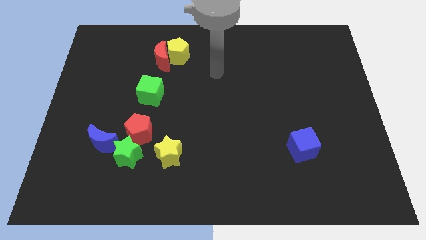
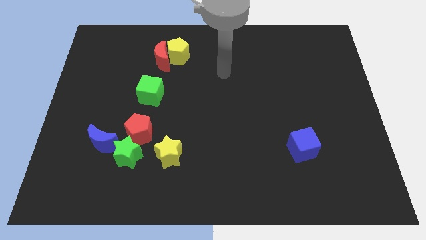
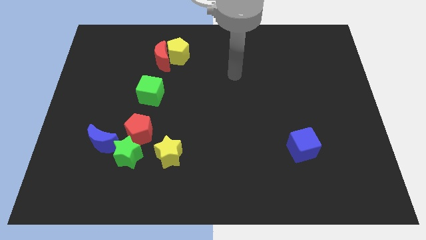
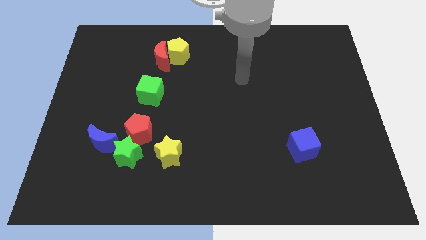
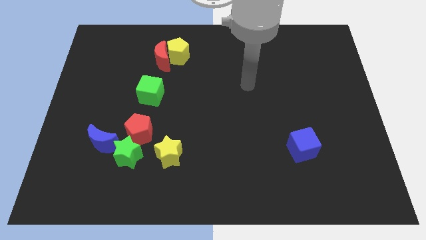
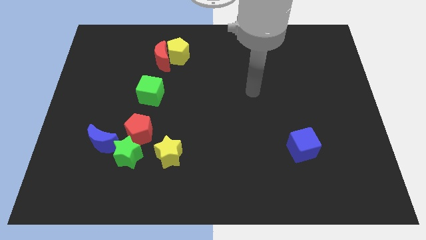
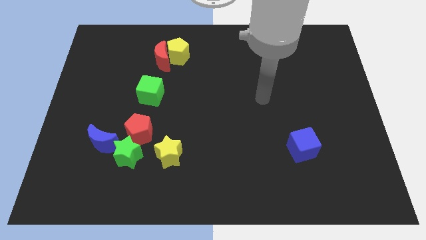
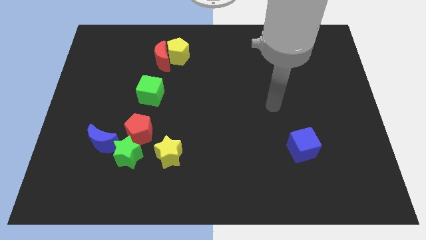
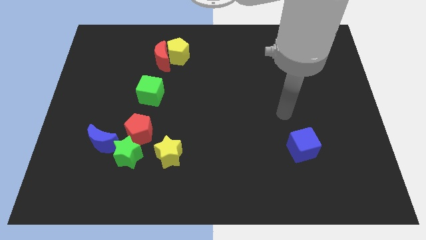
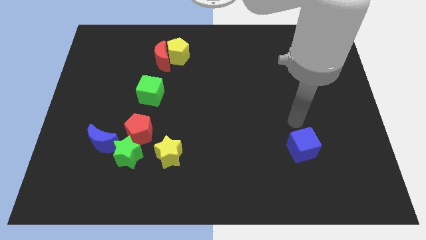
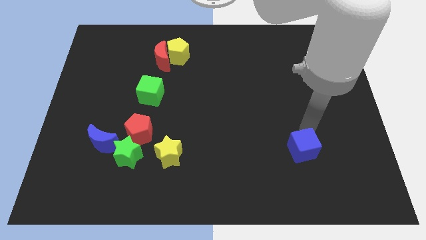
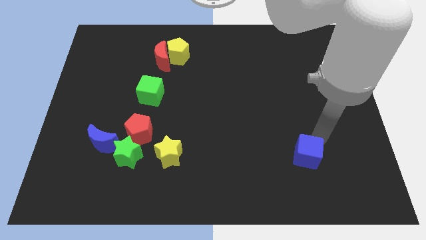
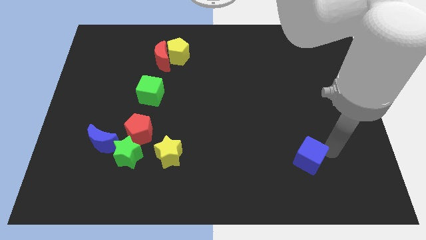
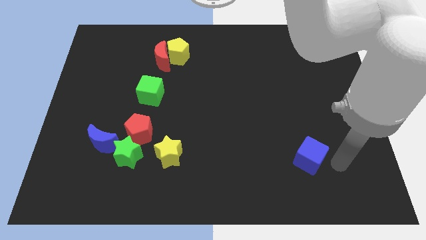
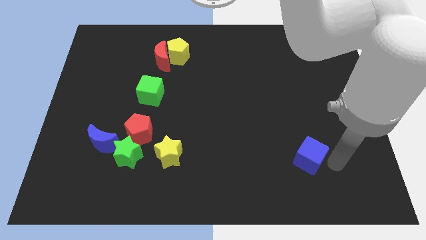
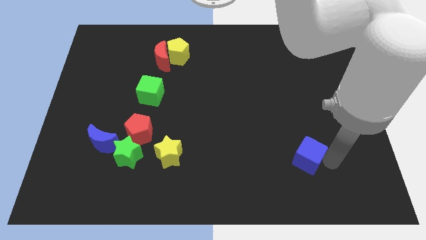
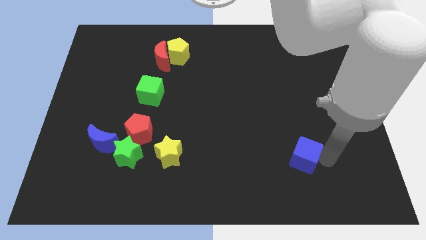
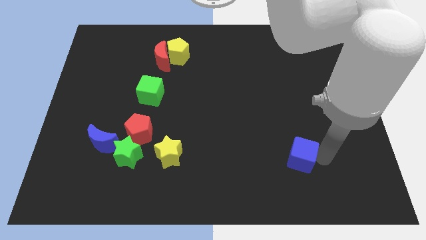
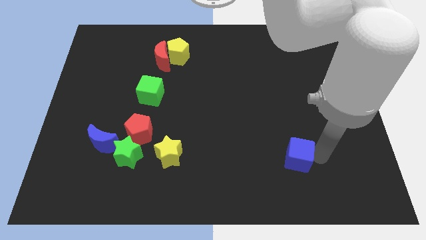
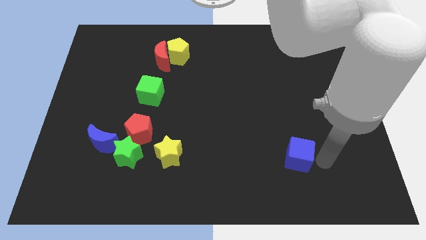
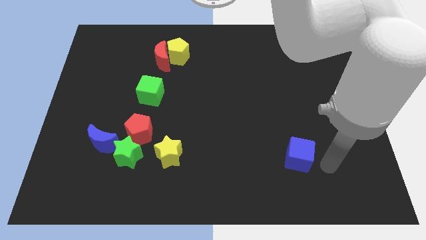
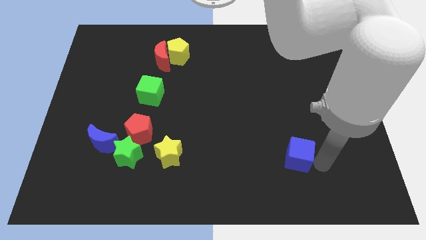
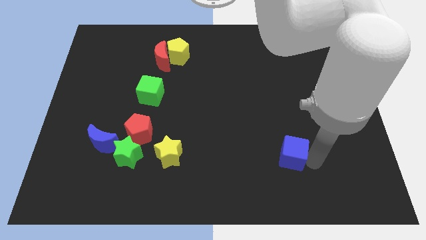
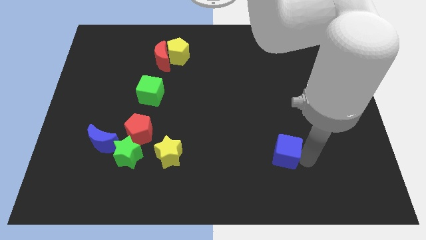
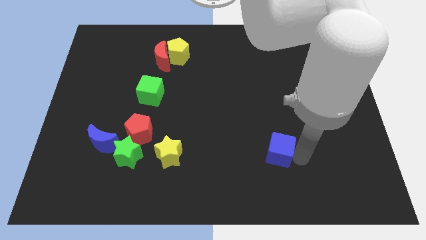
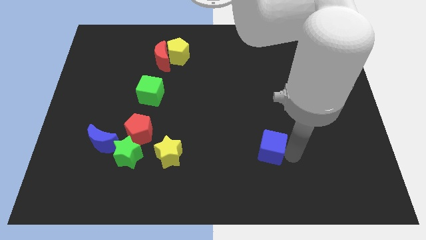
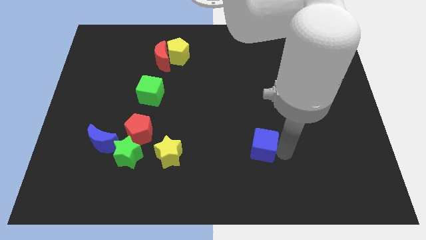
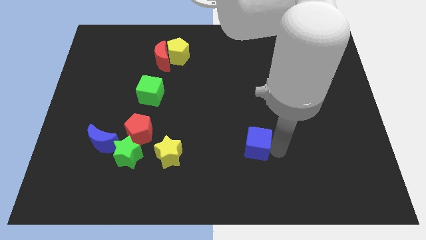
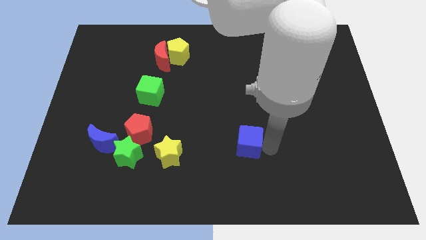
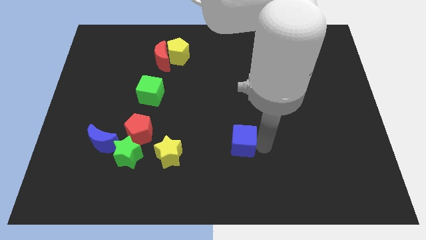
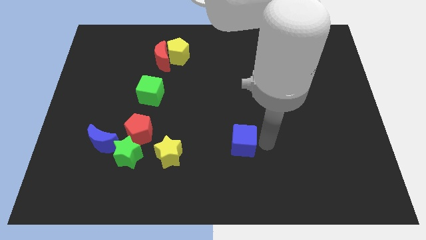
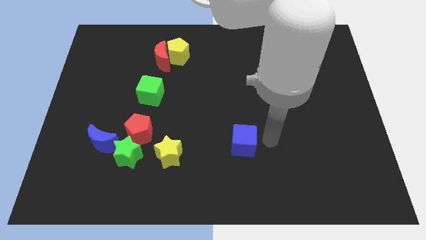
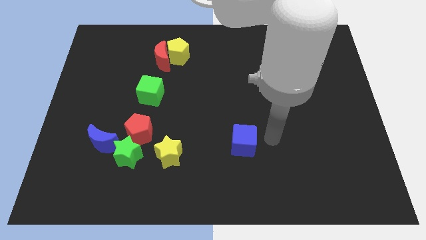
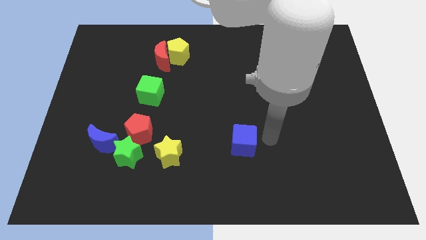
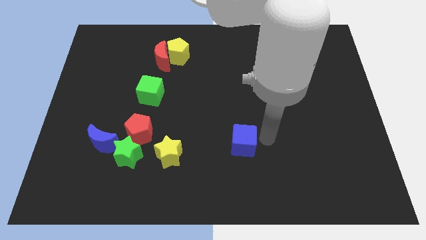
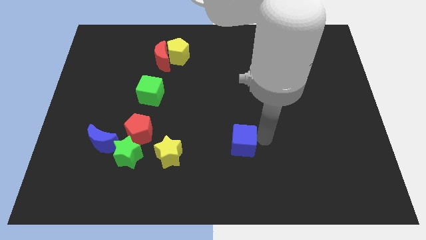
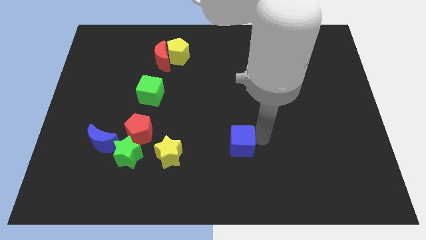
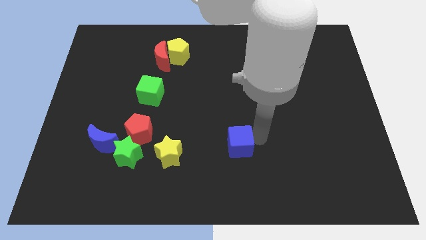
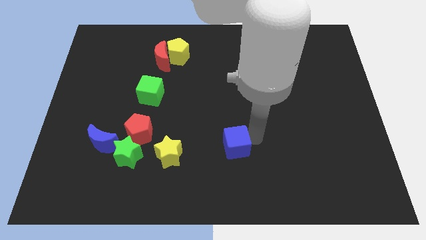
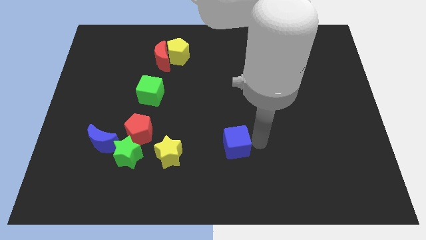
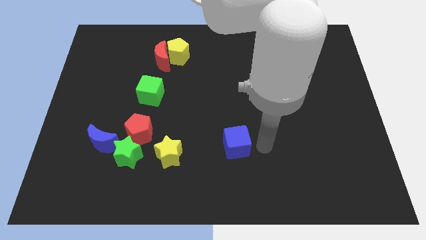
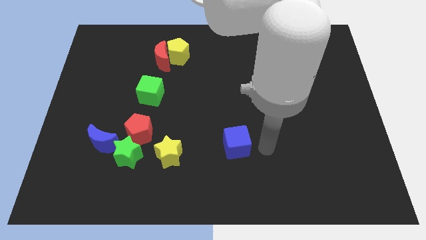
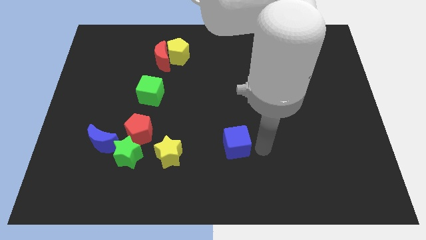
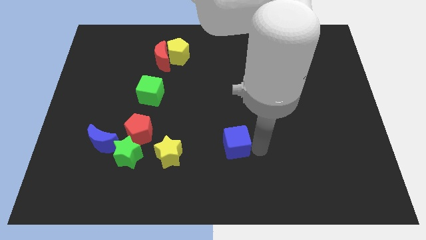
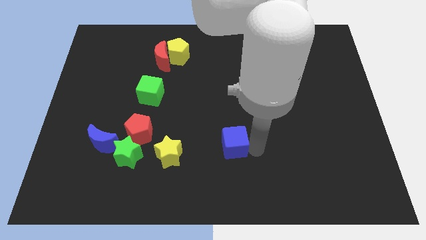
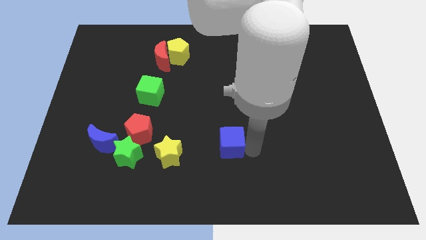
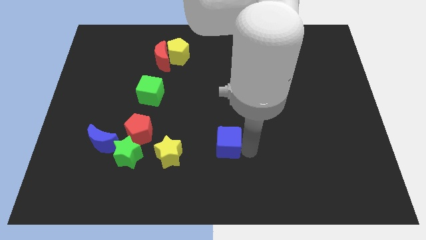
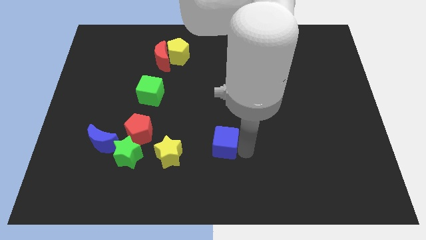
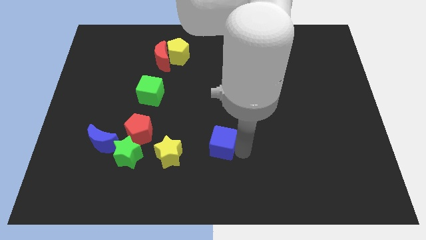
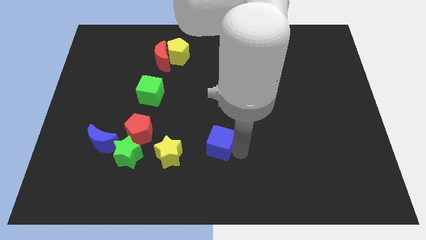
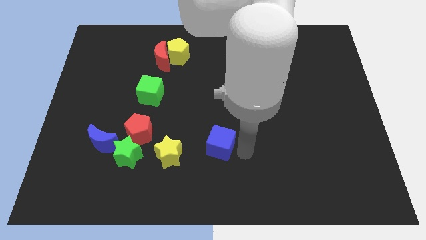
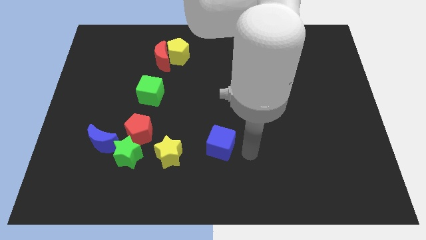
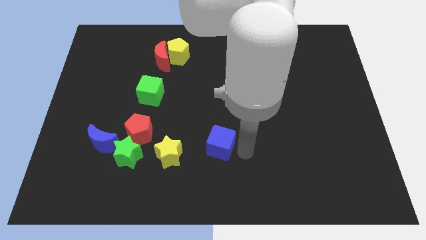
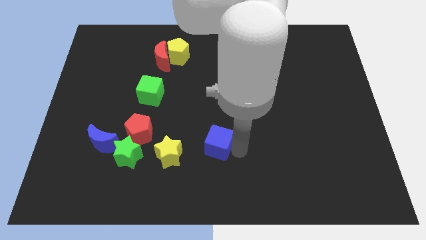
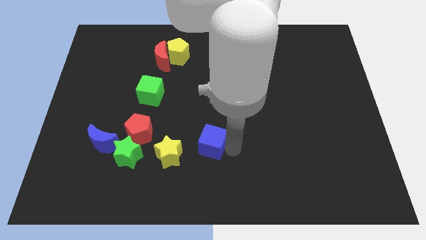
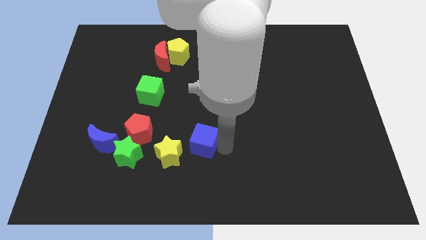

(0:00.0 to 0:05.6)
slide the blue cube to the left

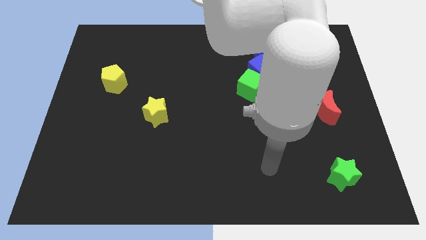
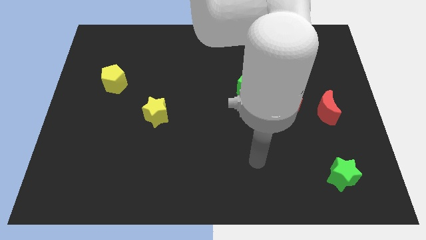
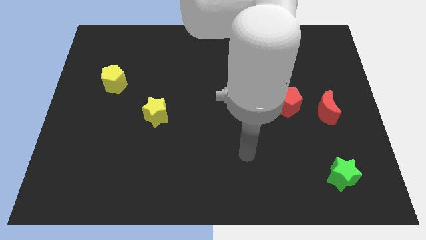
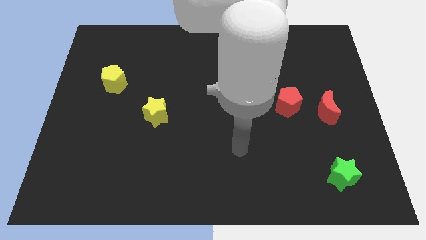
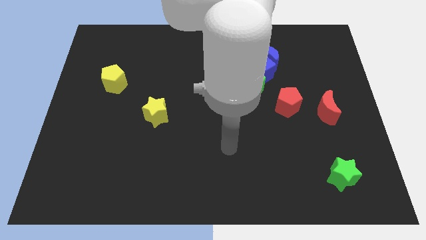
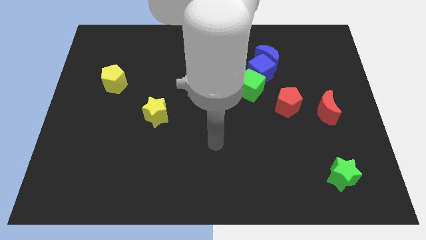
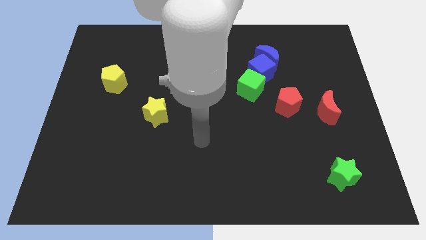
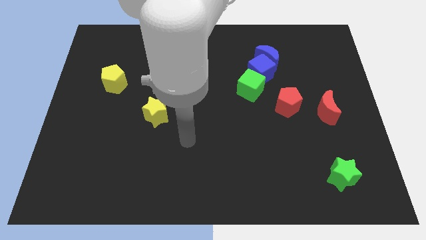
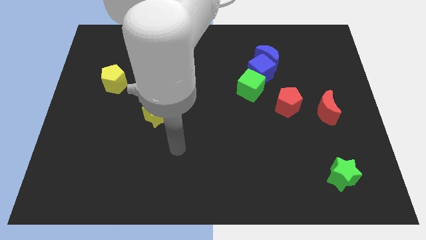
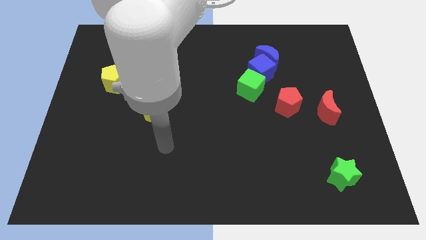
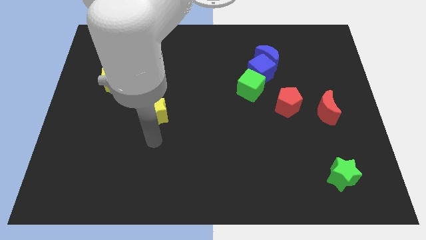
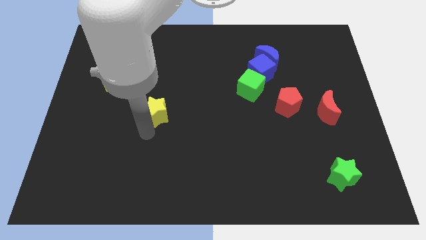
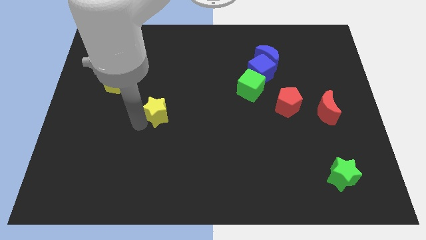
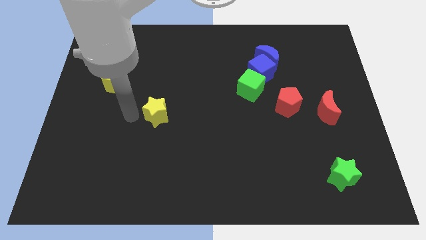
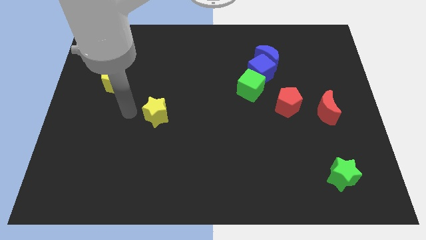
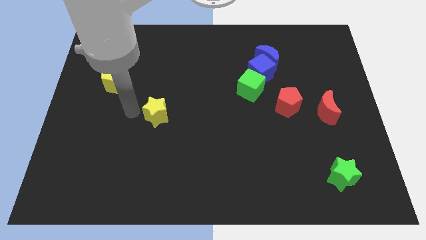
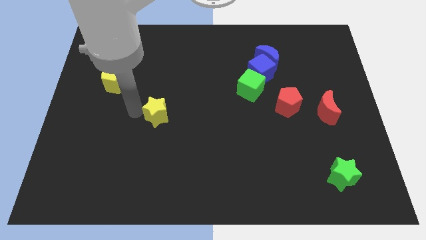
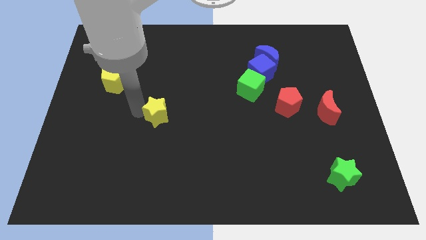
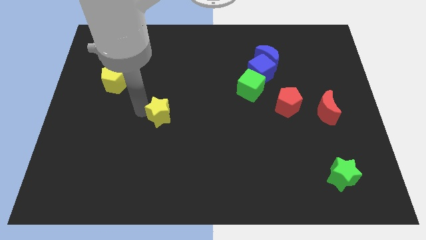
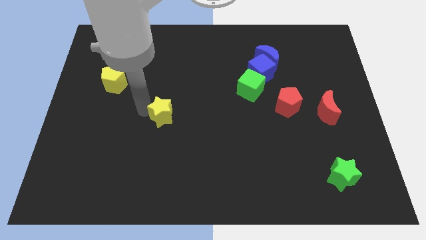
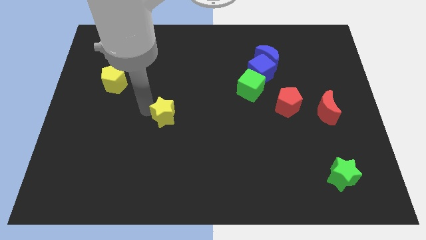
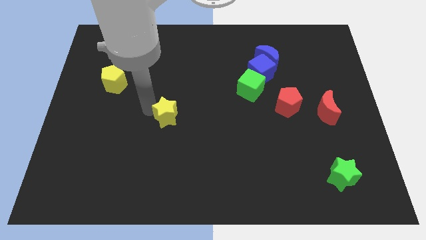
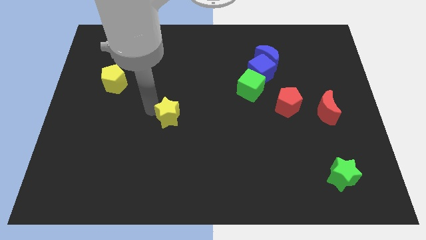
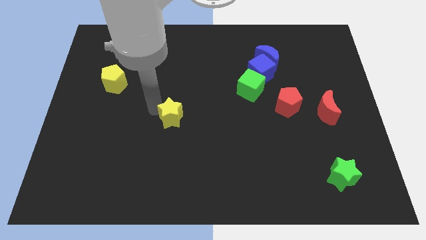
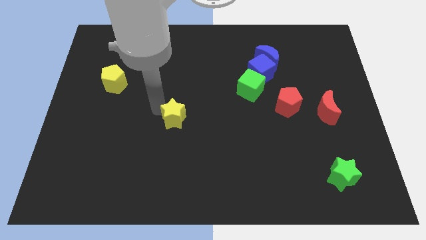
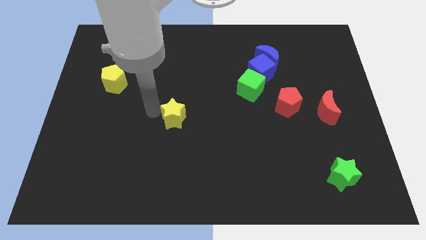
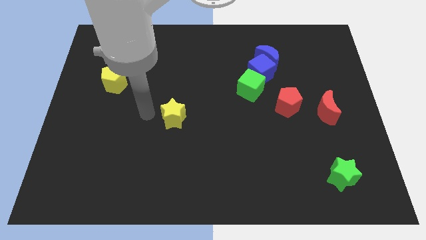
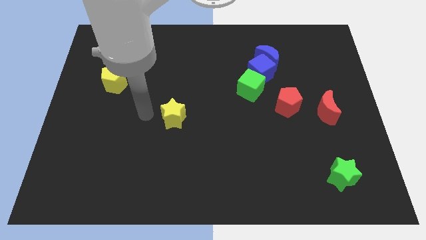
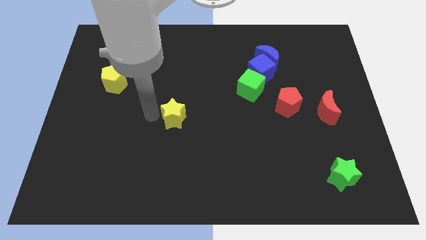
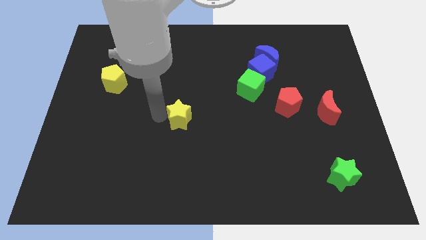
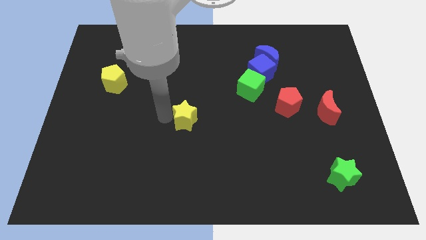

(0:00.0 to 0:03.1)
slide the yellow star to the right a little bit
